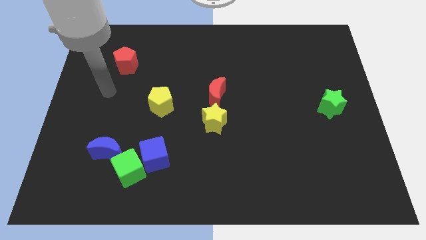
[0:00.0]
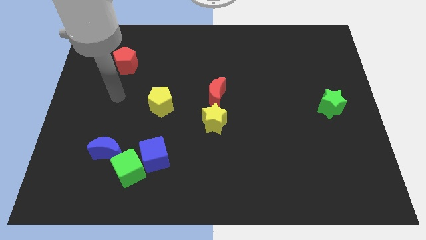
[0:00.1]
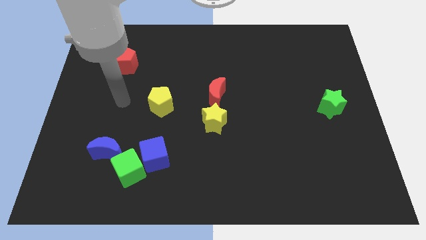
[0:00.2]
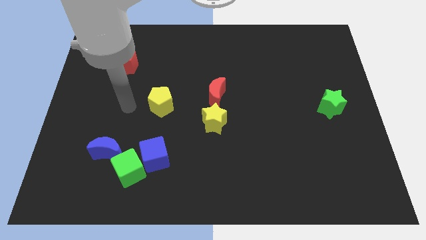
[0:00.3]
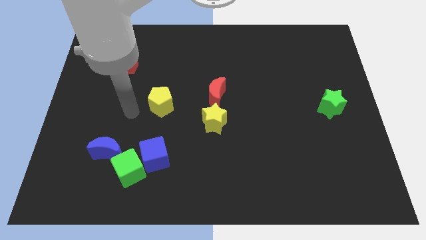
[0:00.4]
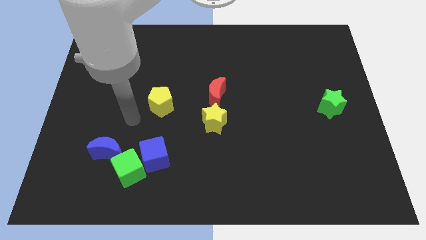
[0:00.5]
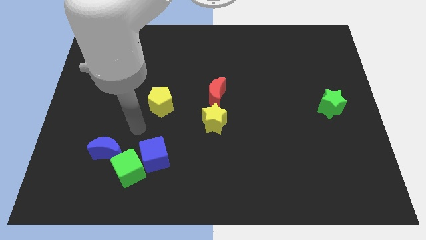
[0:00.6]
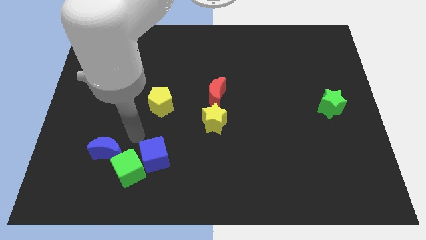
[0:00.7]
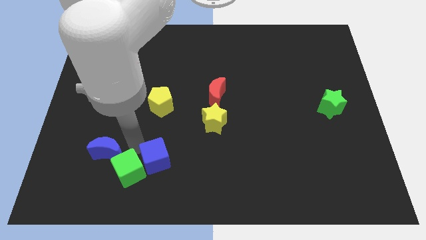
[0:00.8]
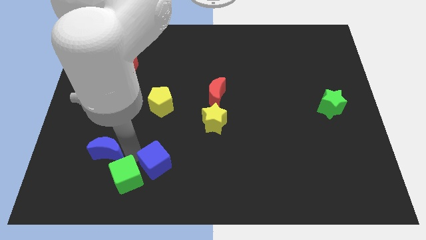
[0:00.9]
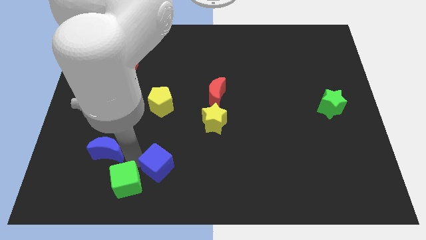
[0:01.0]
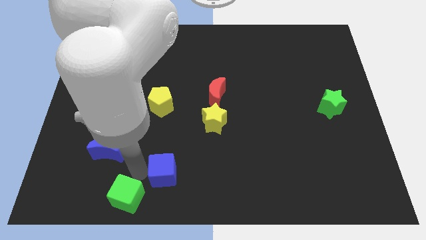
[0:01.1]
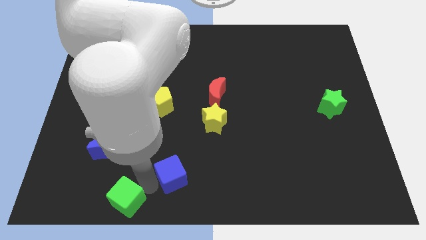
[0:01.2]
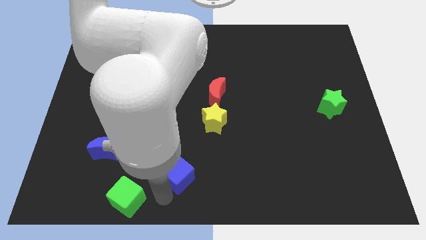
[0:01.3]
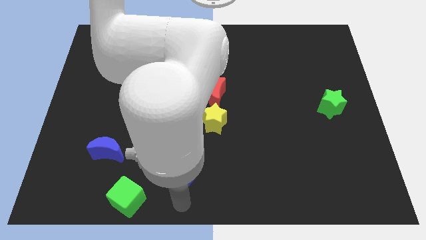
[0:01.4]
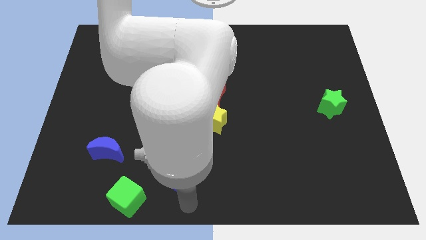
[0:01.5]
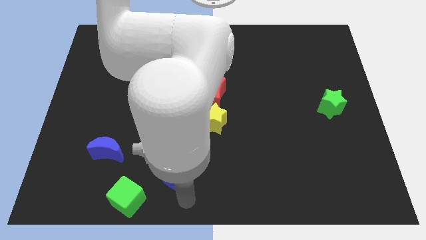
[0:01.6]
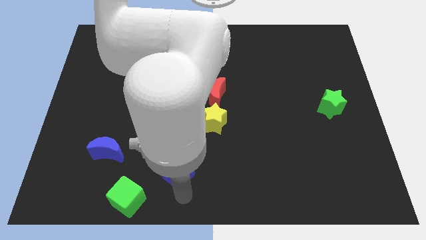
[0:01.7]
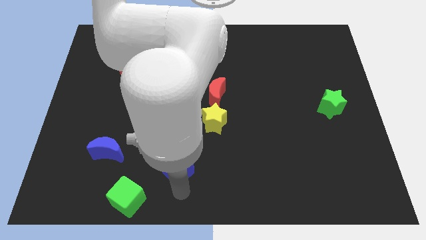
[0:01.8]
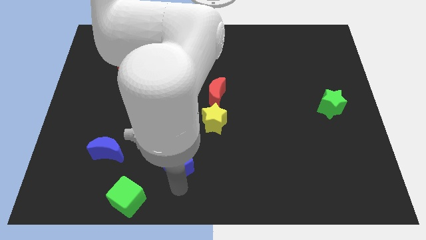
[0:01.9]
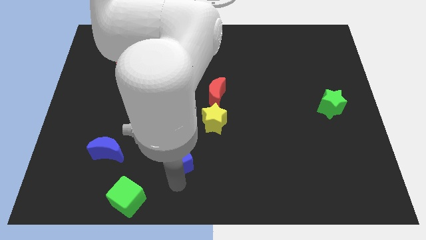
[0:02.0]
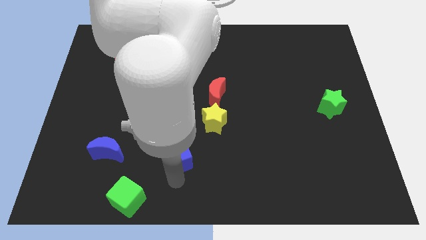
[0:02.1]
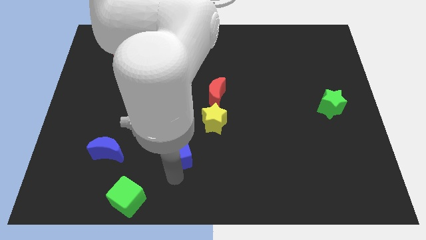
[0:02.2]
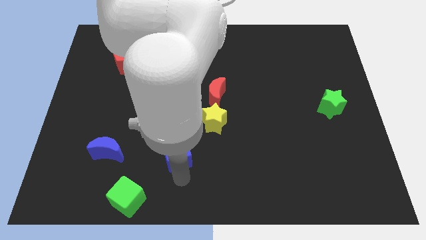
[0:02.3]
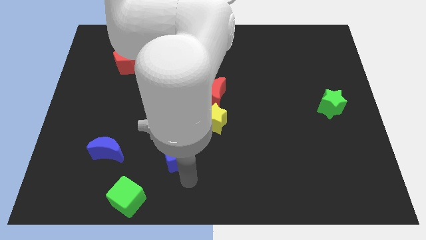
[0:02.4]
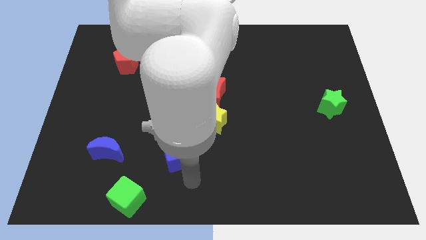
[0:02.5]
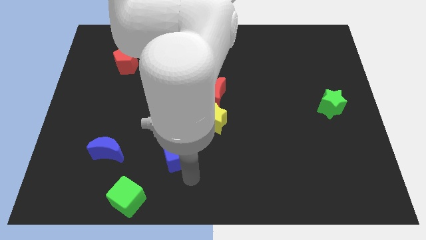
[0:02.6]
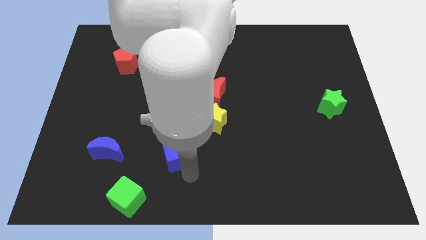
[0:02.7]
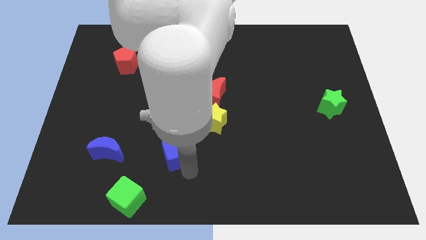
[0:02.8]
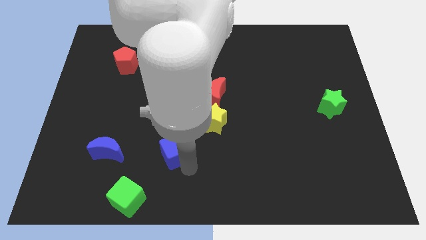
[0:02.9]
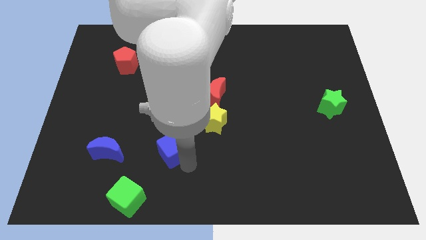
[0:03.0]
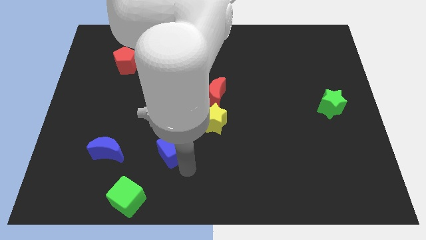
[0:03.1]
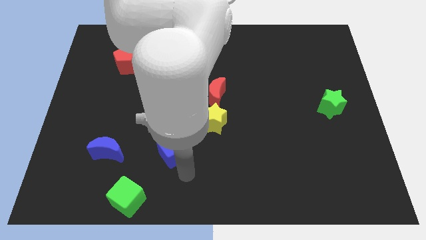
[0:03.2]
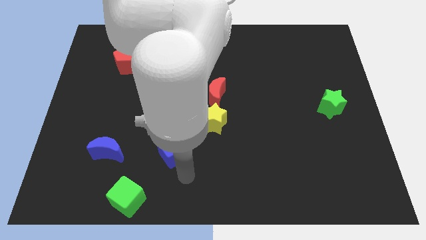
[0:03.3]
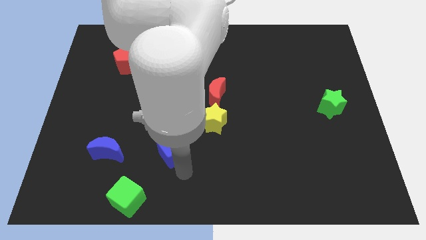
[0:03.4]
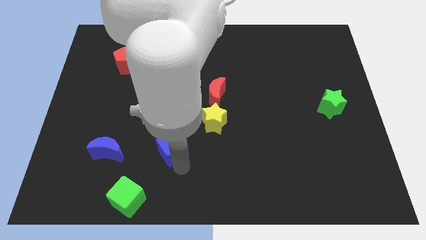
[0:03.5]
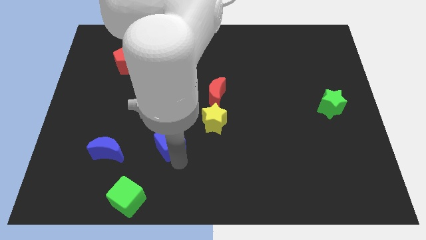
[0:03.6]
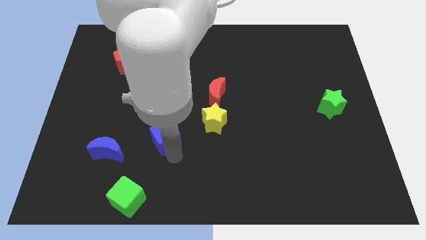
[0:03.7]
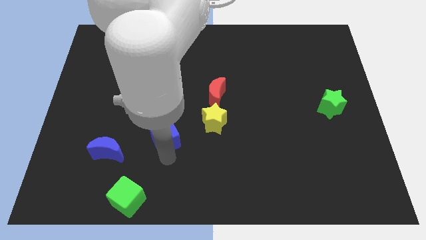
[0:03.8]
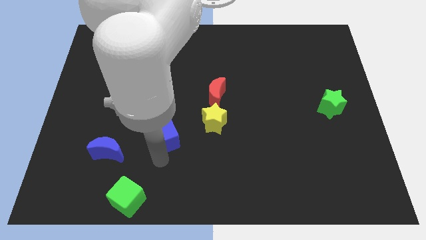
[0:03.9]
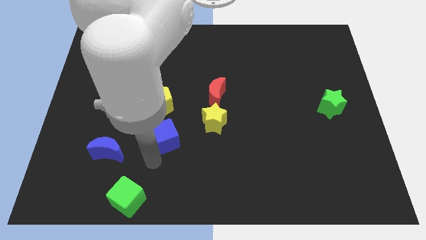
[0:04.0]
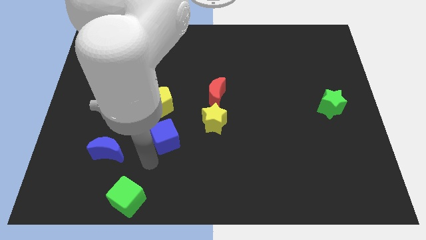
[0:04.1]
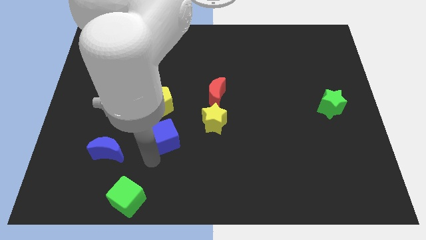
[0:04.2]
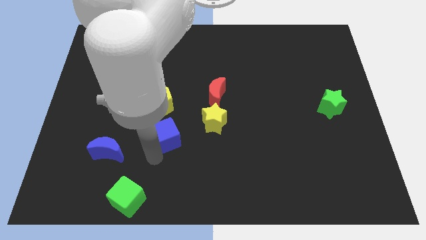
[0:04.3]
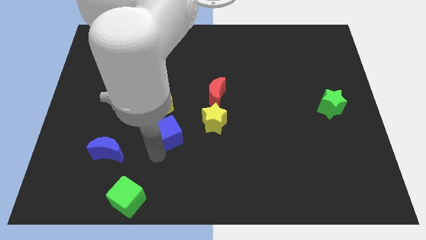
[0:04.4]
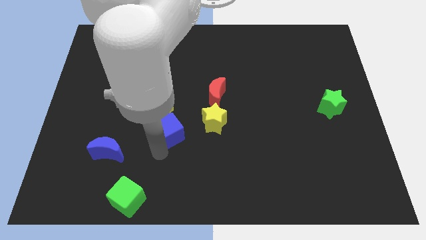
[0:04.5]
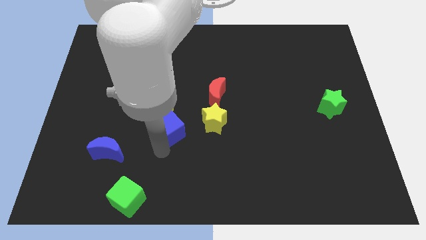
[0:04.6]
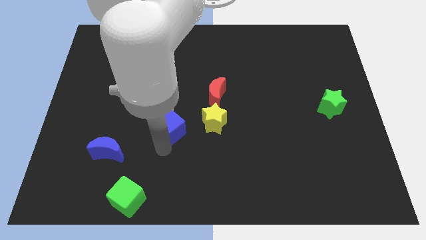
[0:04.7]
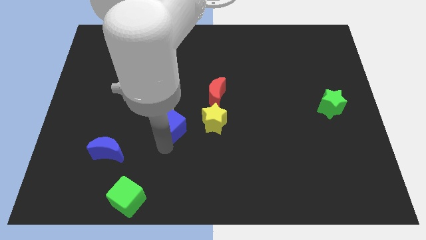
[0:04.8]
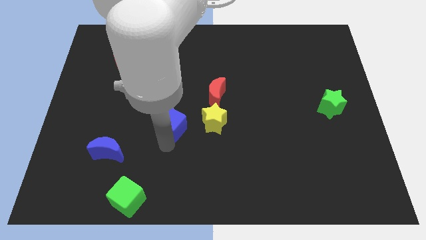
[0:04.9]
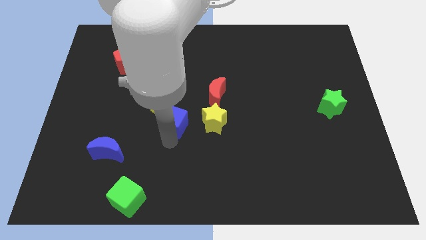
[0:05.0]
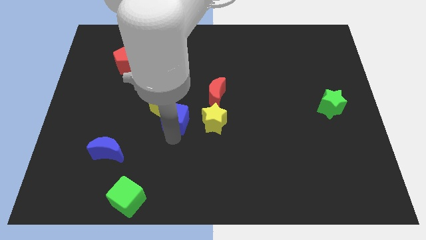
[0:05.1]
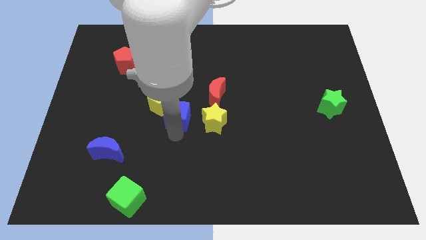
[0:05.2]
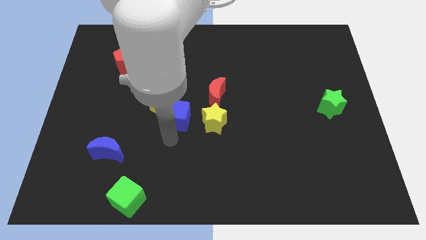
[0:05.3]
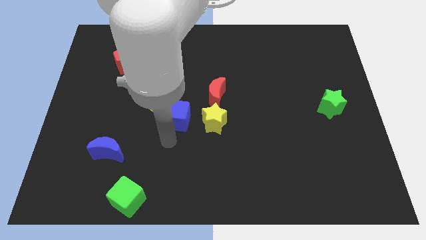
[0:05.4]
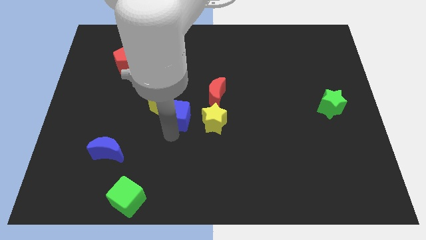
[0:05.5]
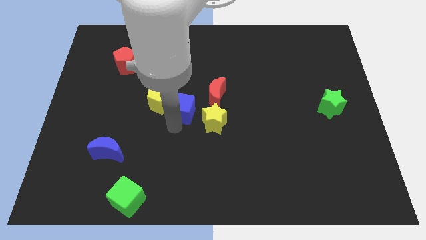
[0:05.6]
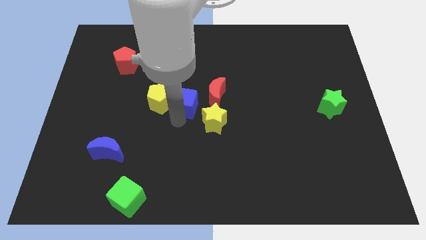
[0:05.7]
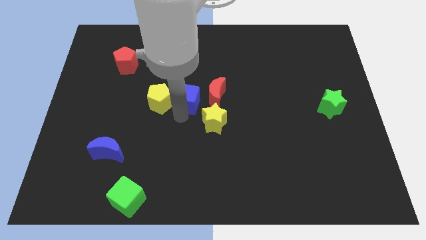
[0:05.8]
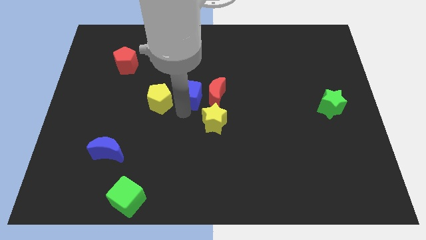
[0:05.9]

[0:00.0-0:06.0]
slide the blue cube diagonally up and to the left of the red moon
